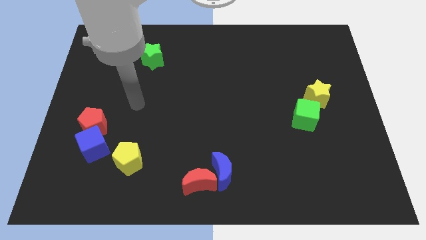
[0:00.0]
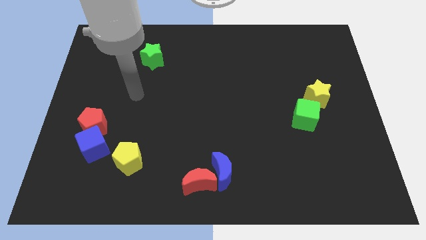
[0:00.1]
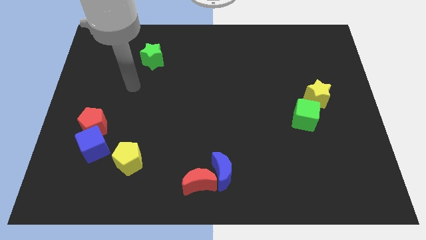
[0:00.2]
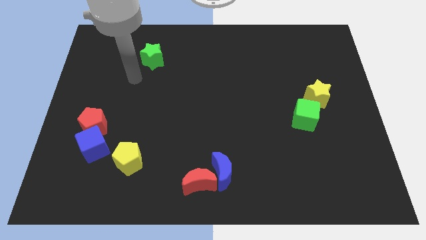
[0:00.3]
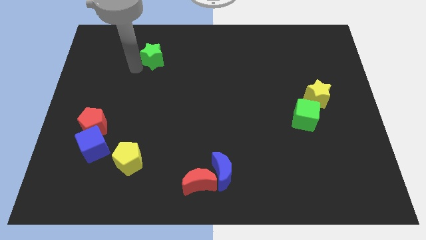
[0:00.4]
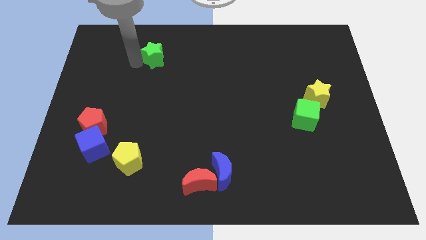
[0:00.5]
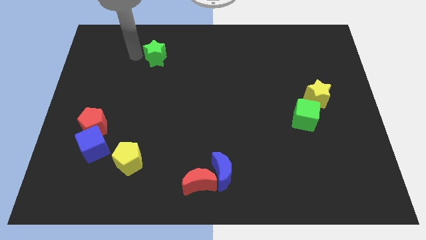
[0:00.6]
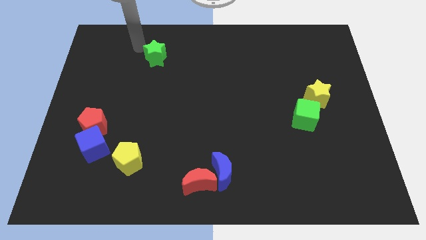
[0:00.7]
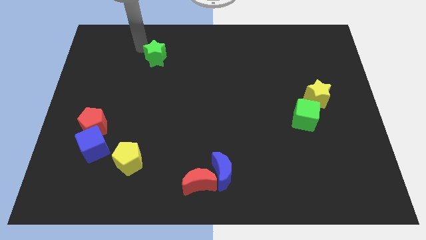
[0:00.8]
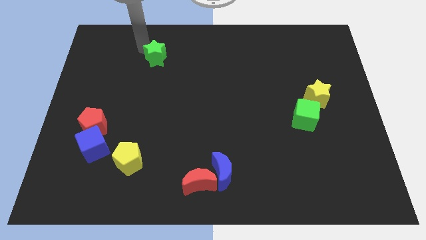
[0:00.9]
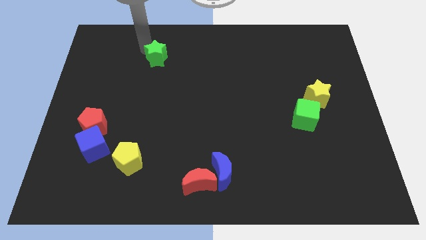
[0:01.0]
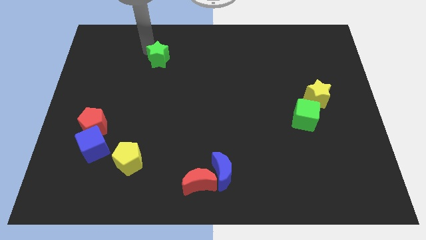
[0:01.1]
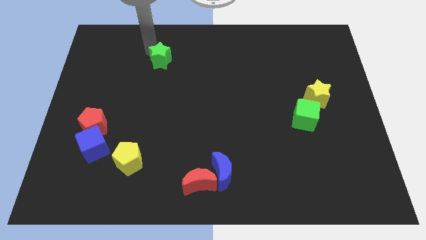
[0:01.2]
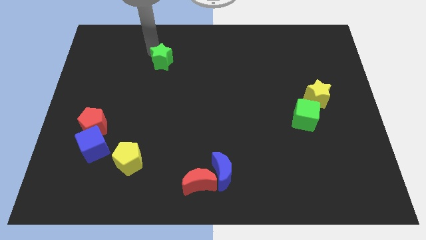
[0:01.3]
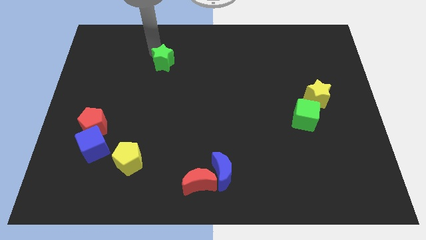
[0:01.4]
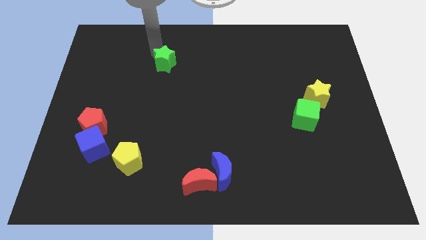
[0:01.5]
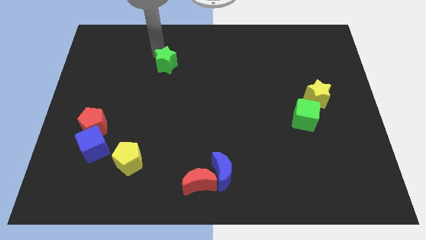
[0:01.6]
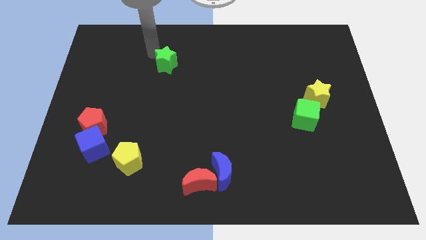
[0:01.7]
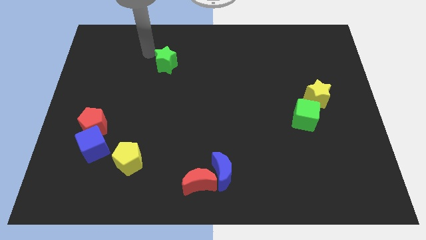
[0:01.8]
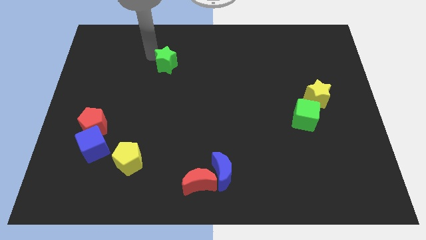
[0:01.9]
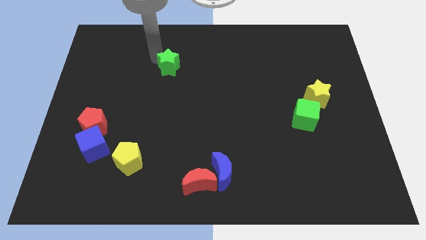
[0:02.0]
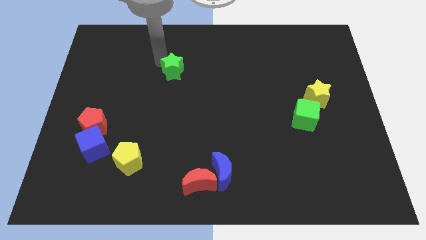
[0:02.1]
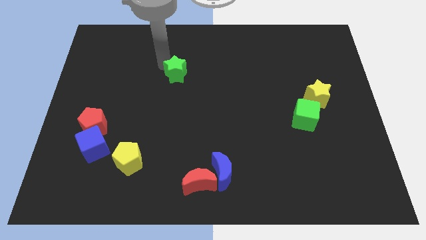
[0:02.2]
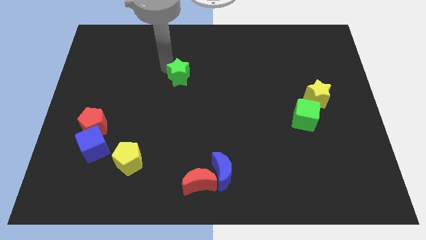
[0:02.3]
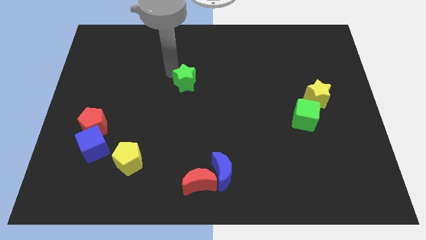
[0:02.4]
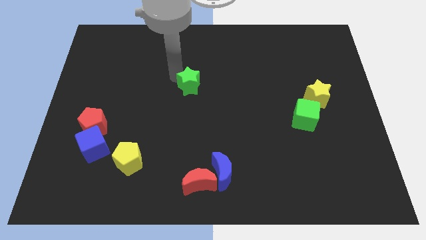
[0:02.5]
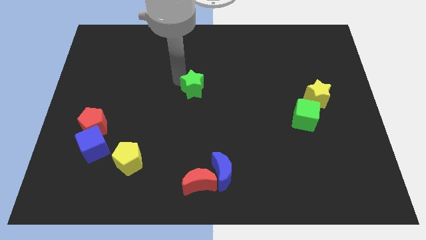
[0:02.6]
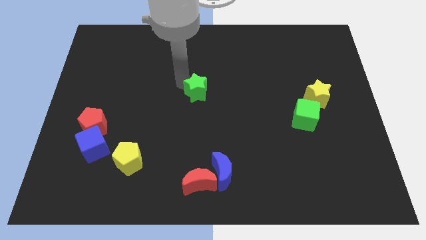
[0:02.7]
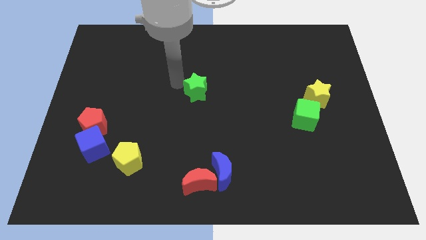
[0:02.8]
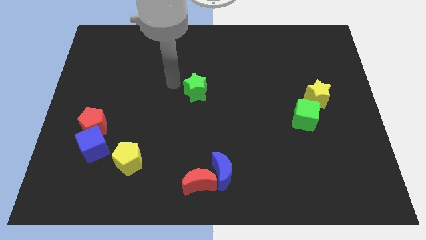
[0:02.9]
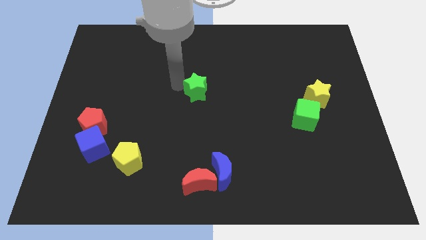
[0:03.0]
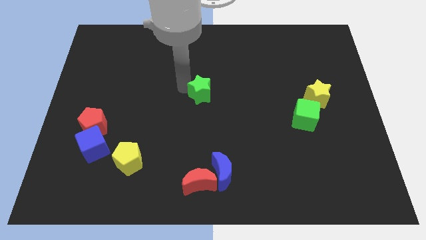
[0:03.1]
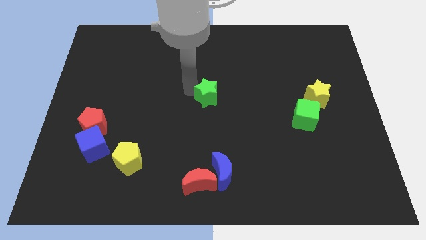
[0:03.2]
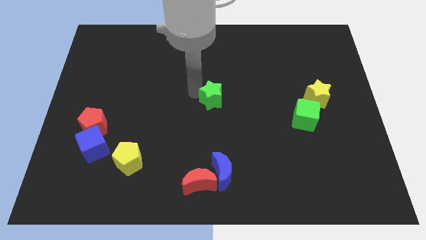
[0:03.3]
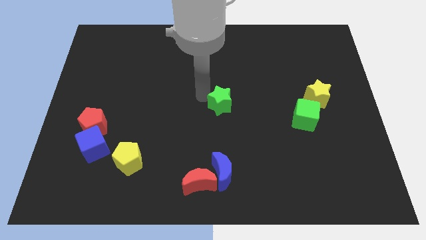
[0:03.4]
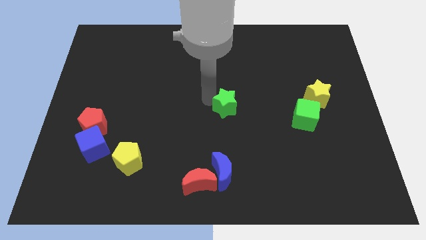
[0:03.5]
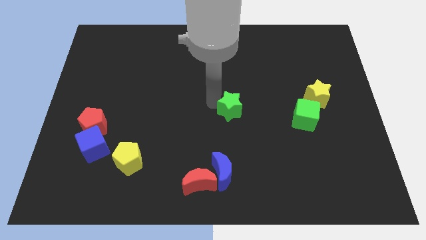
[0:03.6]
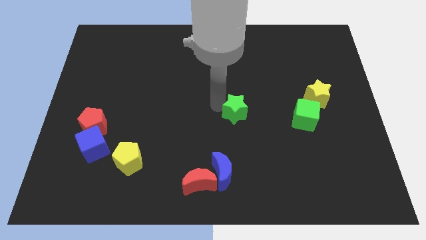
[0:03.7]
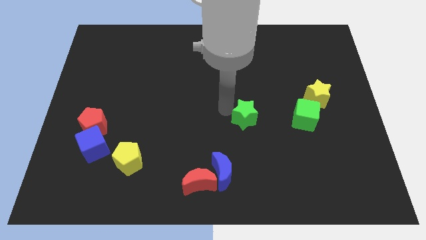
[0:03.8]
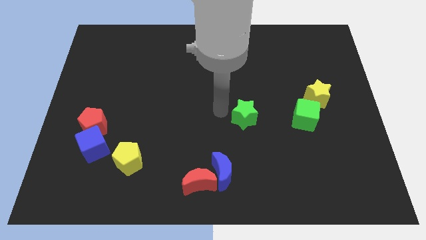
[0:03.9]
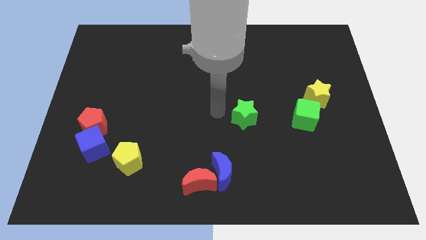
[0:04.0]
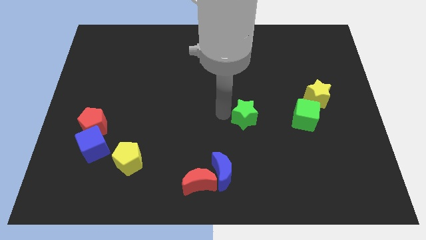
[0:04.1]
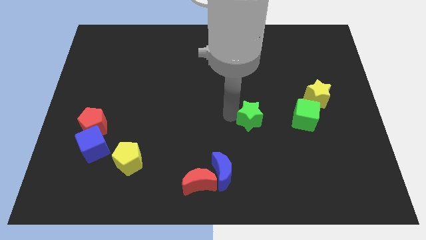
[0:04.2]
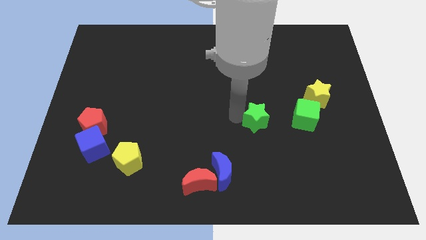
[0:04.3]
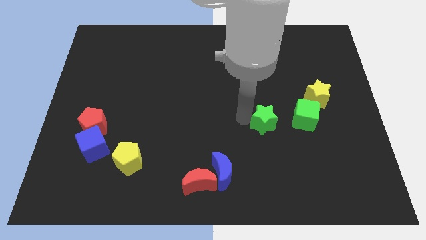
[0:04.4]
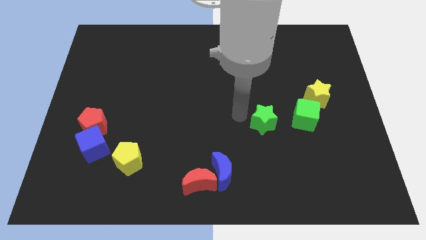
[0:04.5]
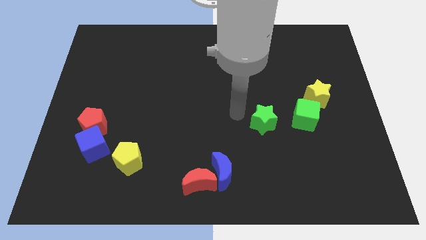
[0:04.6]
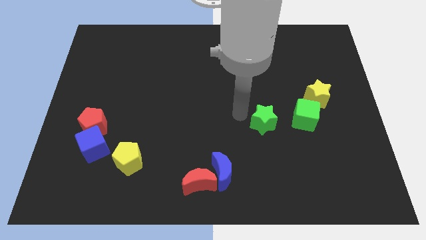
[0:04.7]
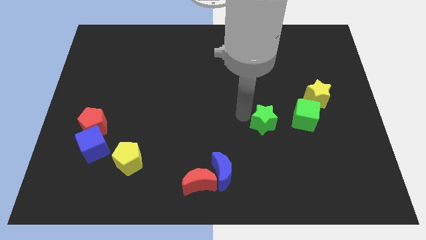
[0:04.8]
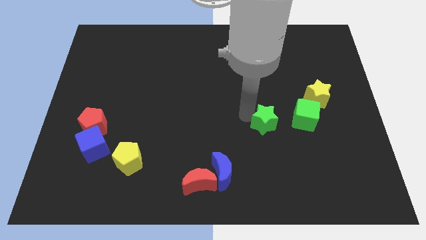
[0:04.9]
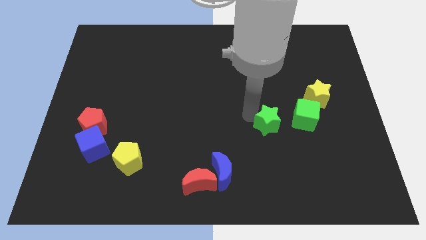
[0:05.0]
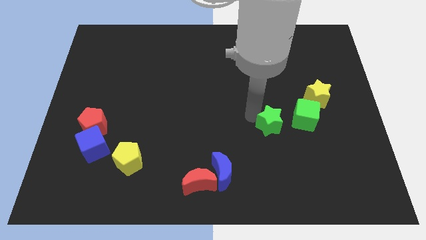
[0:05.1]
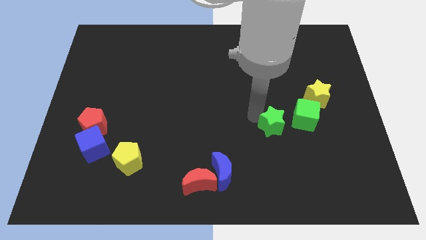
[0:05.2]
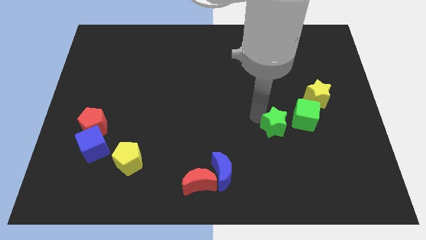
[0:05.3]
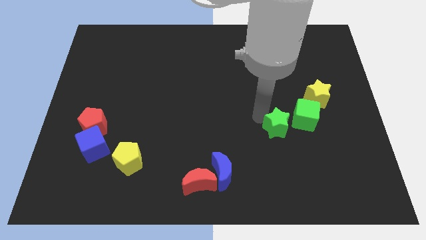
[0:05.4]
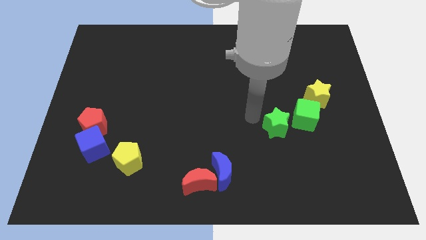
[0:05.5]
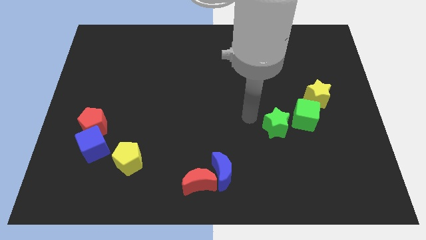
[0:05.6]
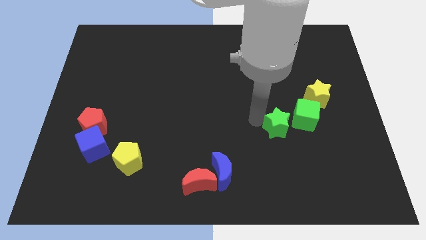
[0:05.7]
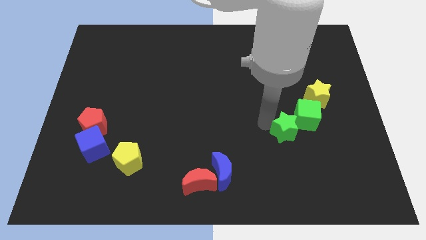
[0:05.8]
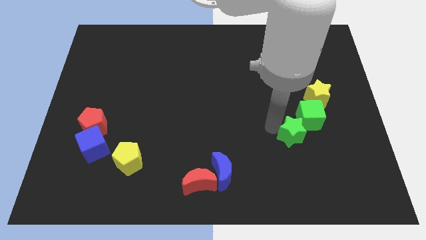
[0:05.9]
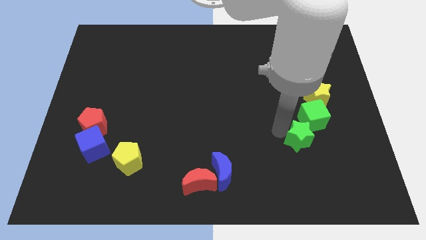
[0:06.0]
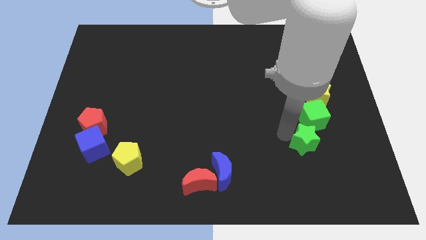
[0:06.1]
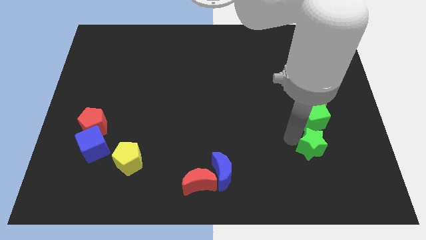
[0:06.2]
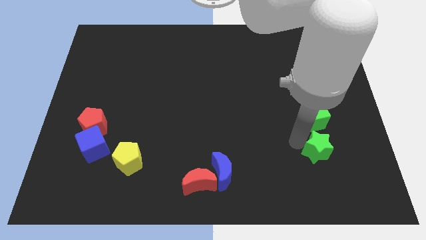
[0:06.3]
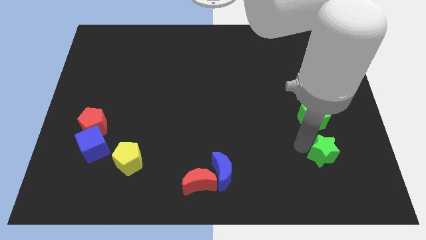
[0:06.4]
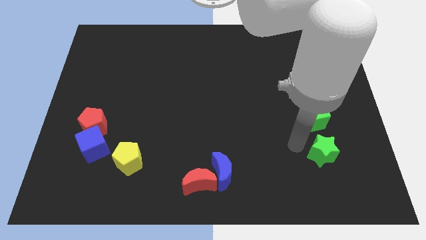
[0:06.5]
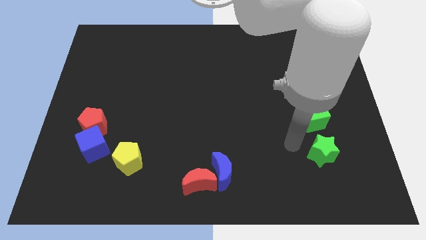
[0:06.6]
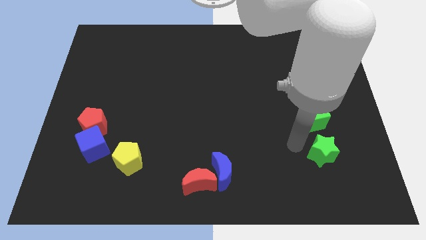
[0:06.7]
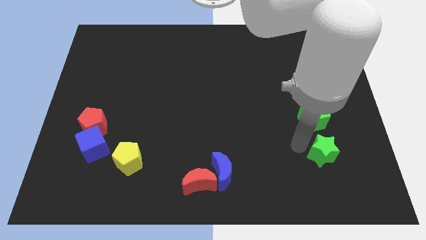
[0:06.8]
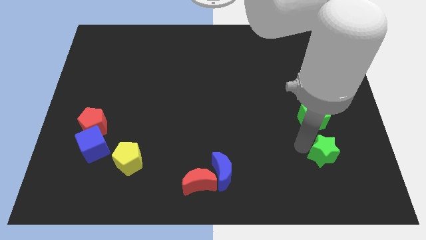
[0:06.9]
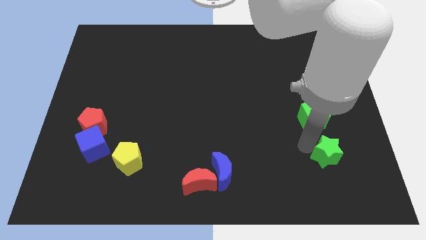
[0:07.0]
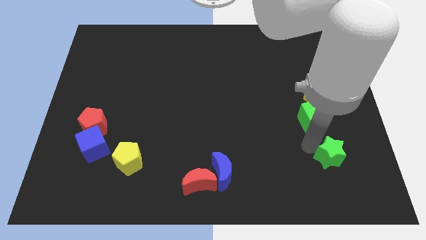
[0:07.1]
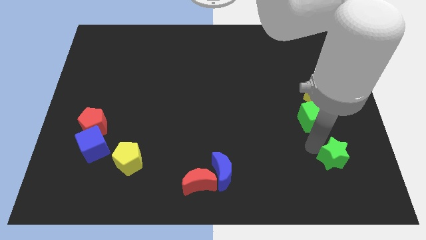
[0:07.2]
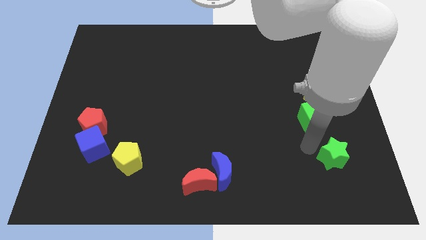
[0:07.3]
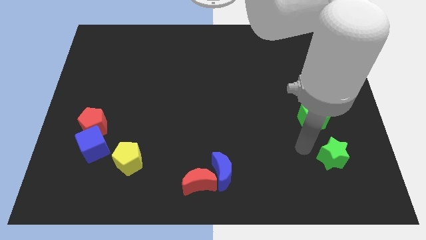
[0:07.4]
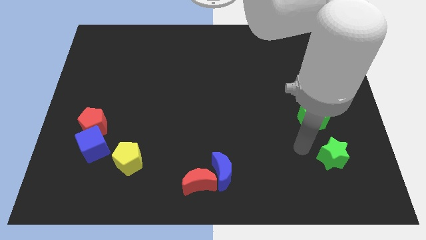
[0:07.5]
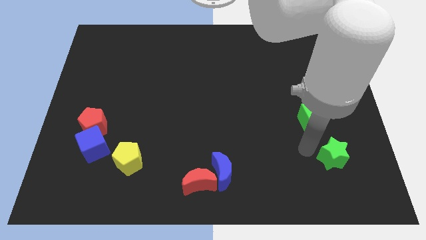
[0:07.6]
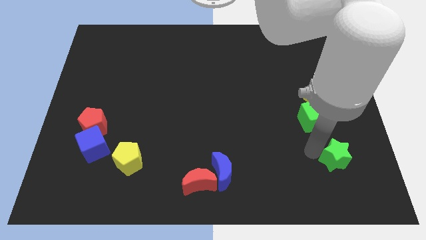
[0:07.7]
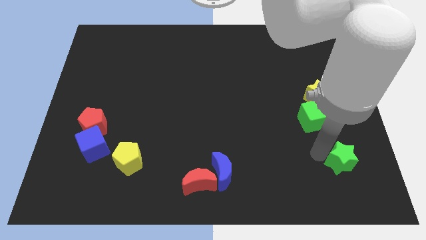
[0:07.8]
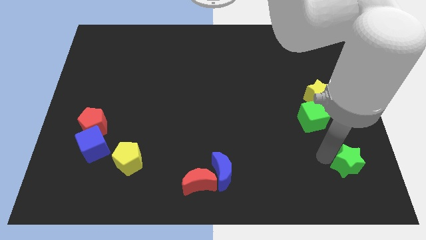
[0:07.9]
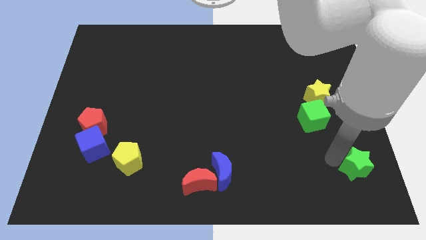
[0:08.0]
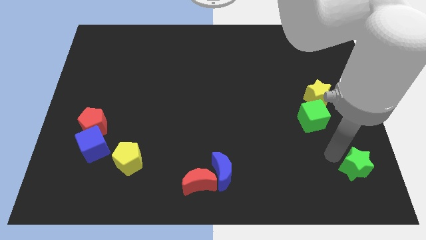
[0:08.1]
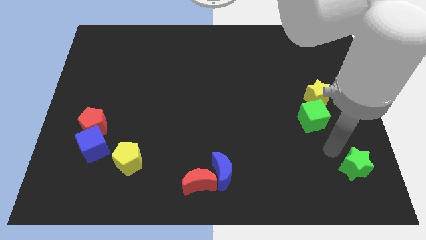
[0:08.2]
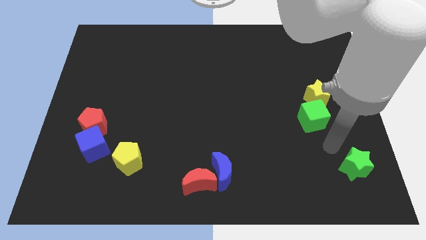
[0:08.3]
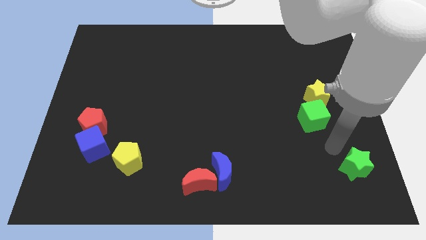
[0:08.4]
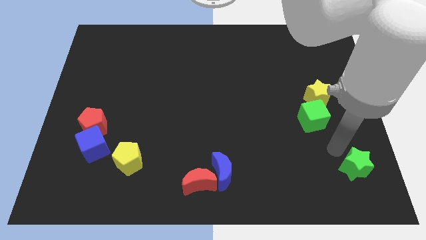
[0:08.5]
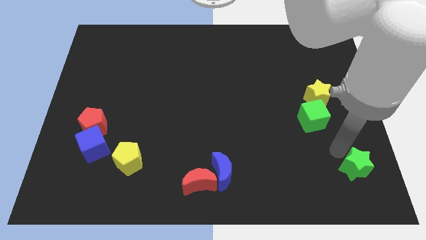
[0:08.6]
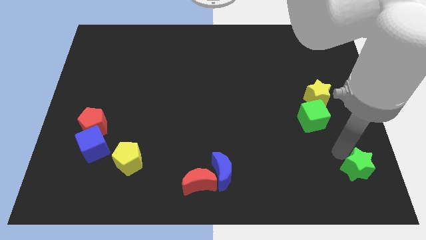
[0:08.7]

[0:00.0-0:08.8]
slide the green star to the lower right corner
